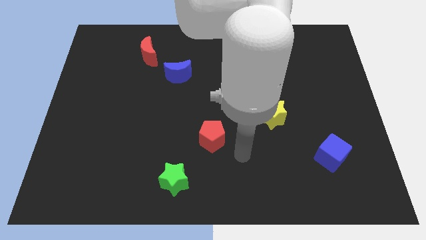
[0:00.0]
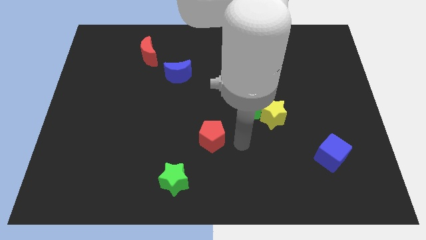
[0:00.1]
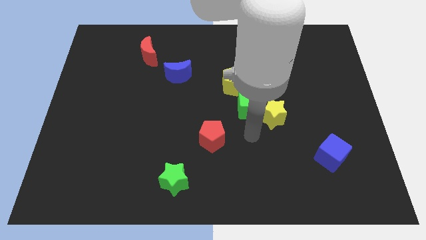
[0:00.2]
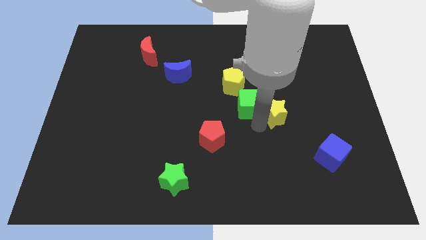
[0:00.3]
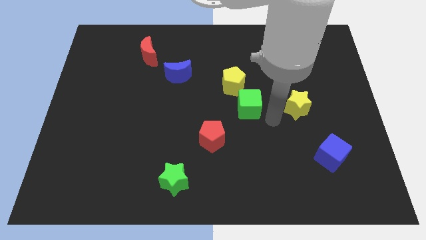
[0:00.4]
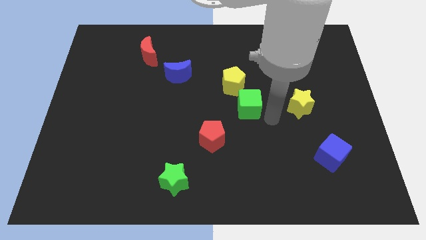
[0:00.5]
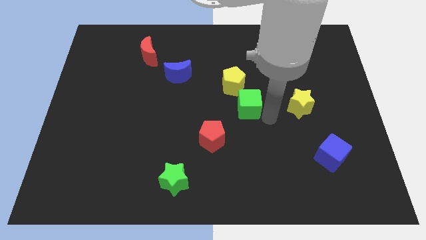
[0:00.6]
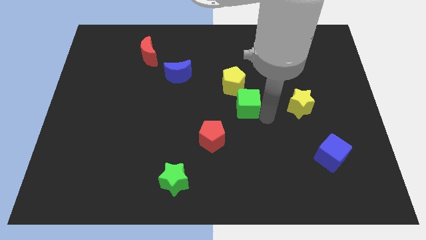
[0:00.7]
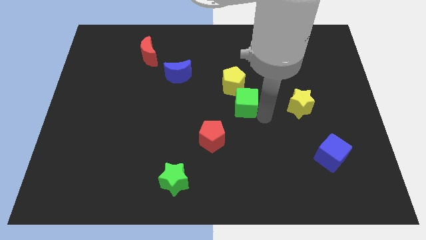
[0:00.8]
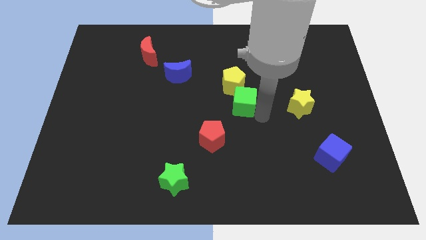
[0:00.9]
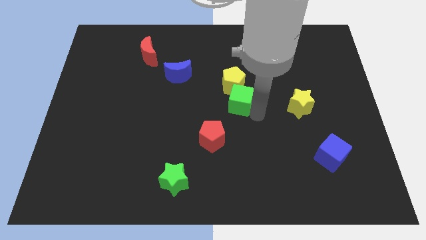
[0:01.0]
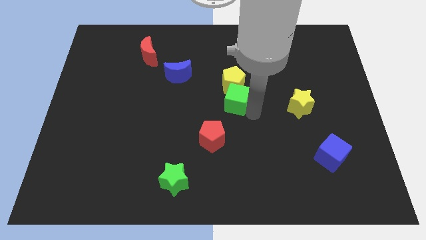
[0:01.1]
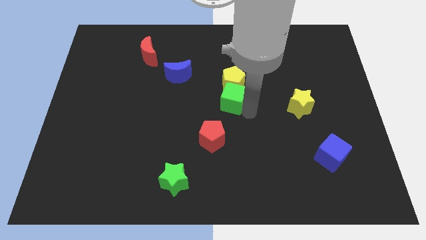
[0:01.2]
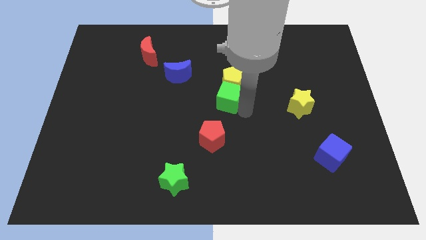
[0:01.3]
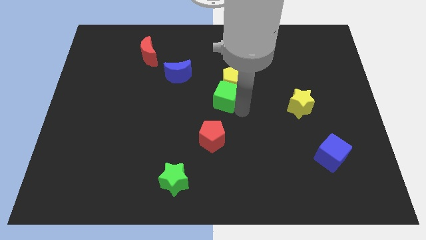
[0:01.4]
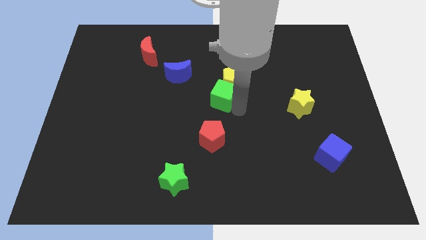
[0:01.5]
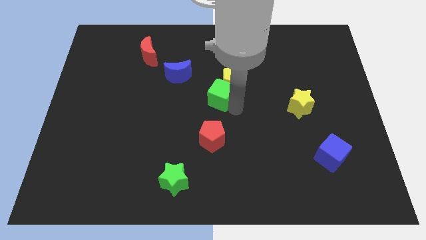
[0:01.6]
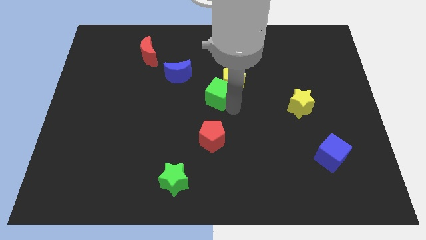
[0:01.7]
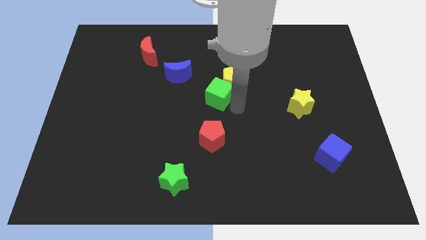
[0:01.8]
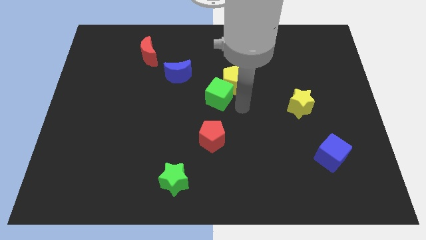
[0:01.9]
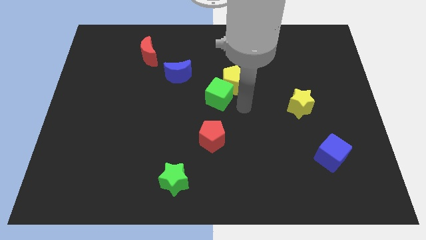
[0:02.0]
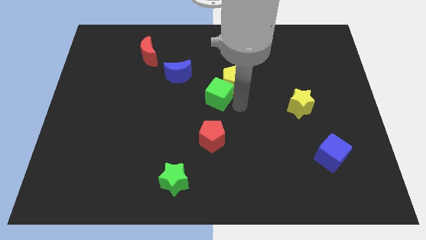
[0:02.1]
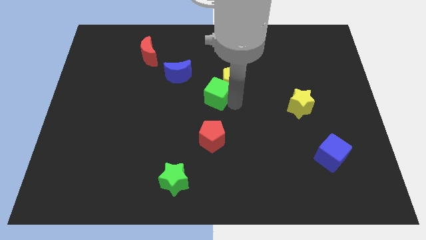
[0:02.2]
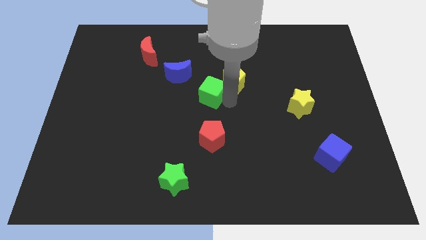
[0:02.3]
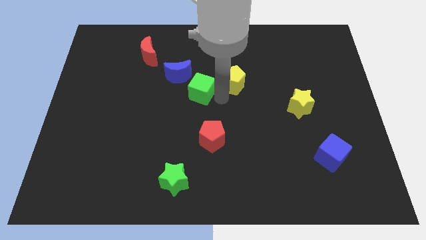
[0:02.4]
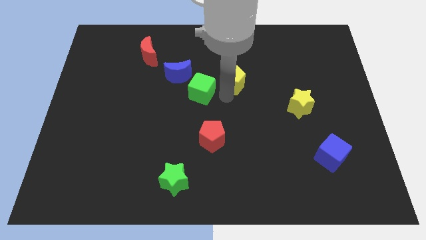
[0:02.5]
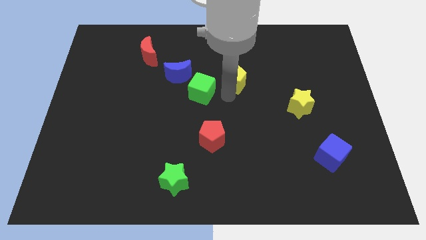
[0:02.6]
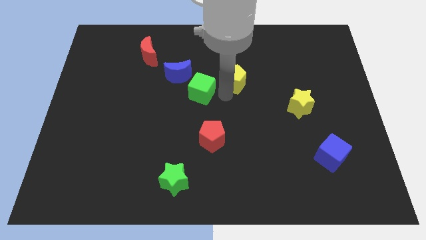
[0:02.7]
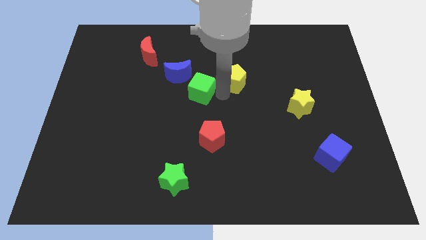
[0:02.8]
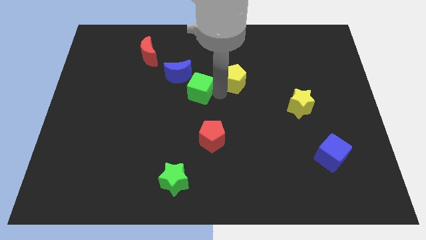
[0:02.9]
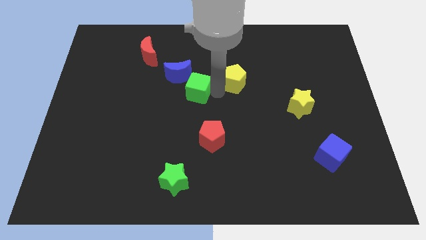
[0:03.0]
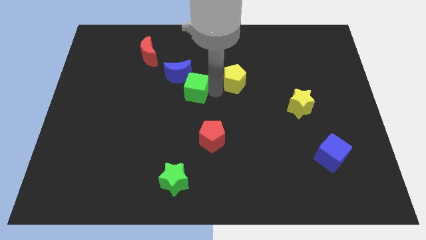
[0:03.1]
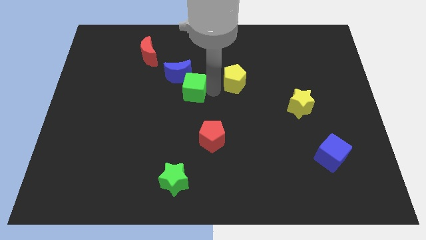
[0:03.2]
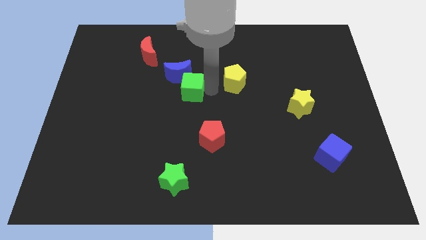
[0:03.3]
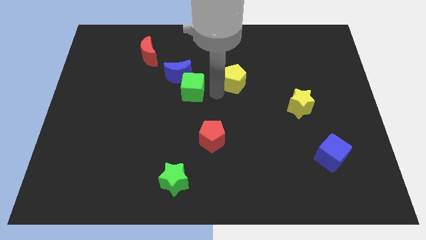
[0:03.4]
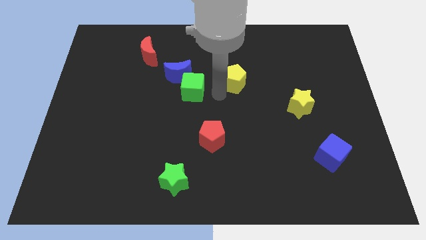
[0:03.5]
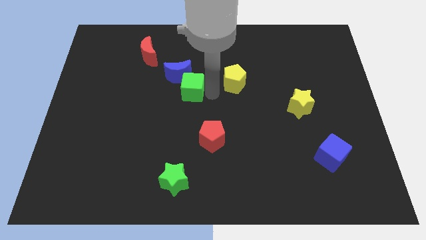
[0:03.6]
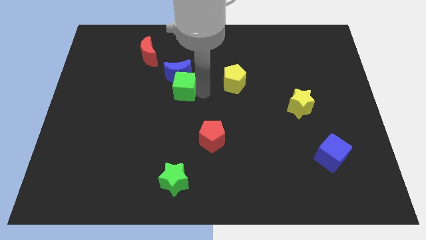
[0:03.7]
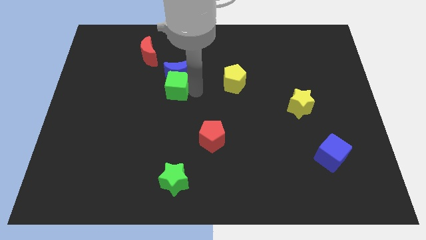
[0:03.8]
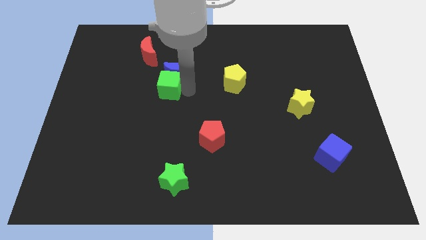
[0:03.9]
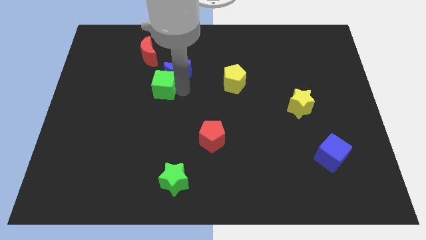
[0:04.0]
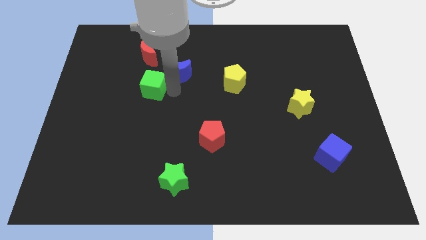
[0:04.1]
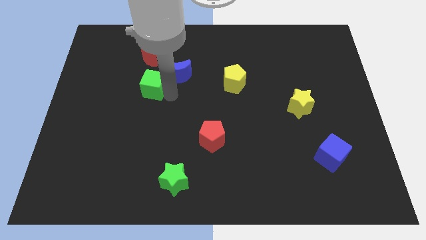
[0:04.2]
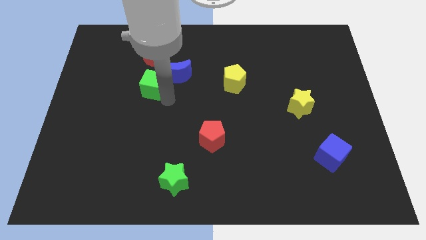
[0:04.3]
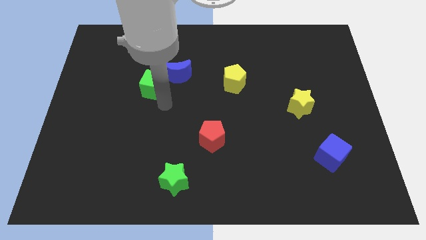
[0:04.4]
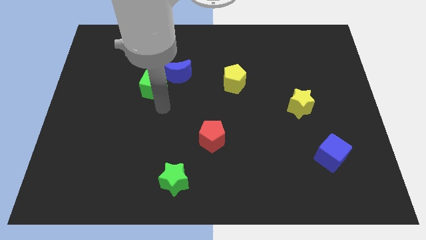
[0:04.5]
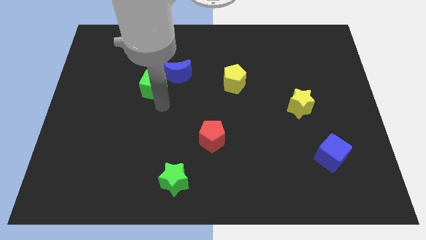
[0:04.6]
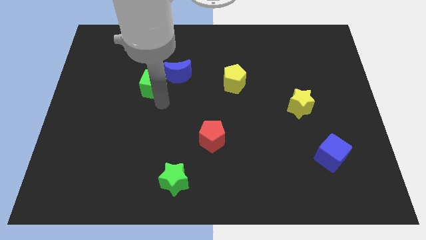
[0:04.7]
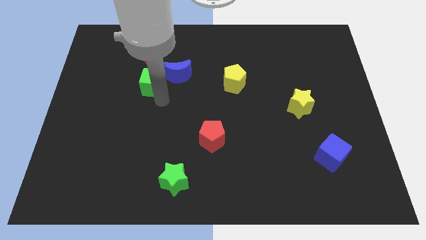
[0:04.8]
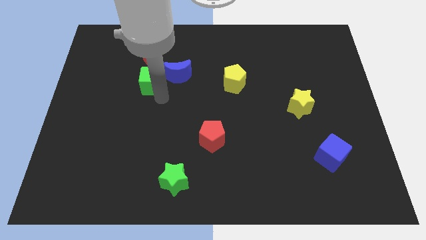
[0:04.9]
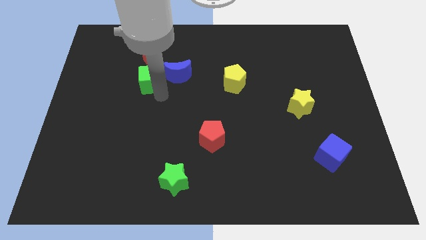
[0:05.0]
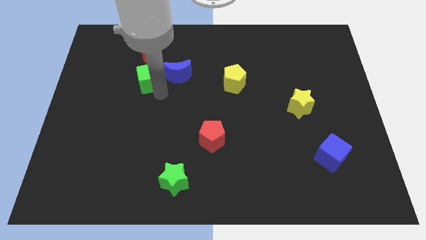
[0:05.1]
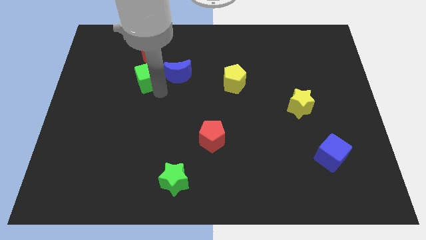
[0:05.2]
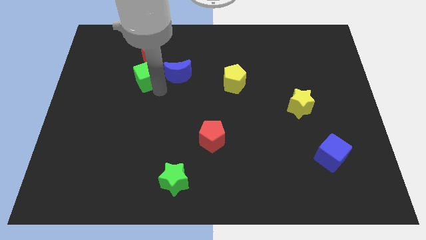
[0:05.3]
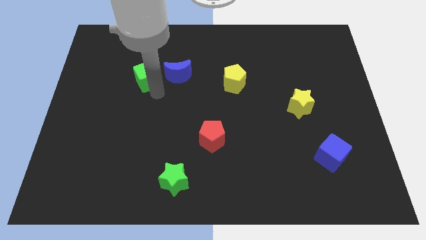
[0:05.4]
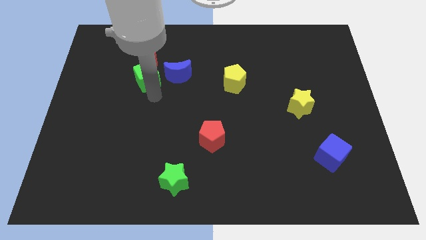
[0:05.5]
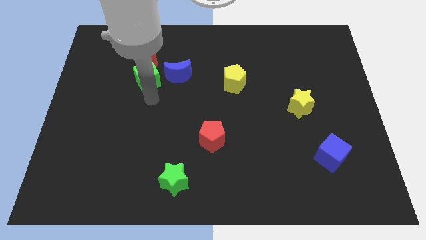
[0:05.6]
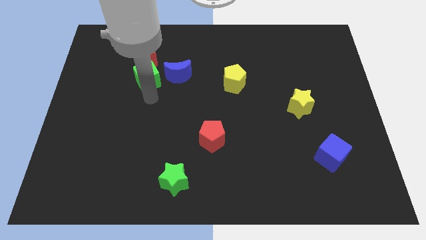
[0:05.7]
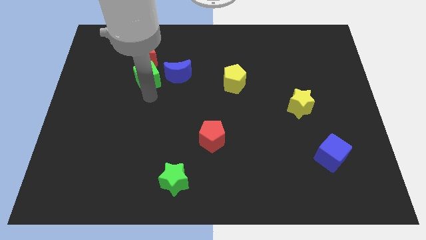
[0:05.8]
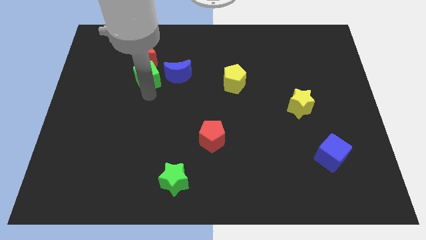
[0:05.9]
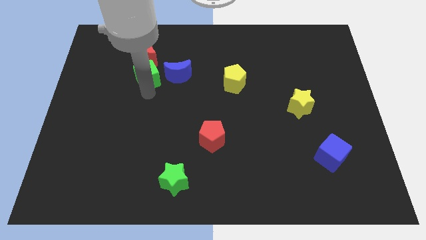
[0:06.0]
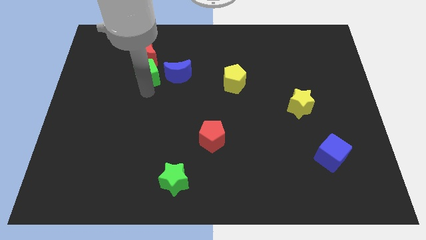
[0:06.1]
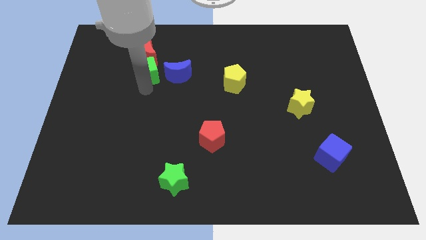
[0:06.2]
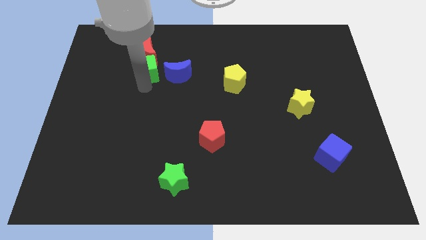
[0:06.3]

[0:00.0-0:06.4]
push the green cube close to the red moon

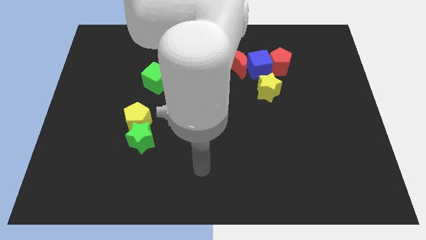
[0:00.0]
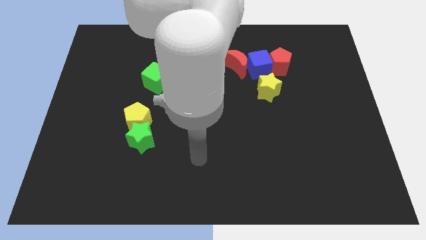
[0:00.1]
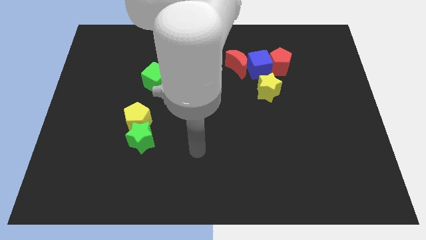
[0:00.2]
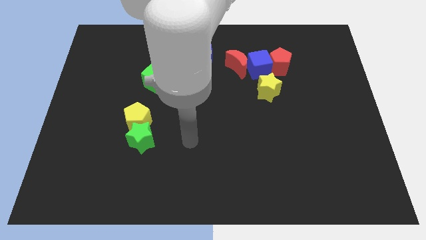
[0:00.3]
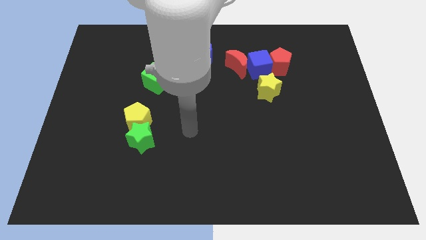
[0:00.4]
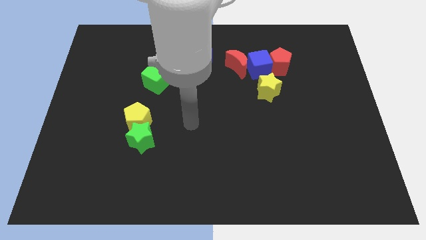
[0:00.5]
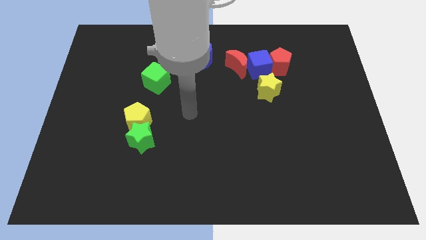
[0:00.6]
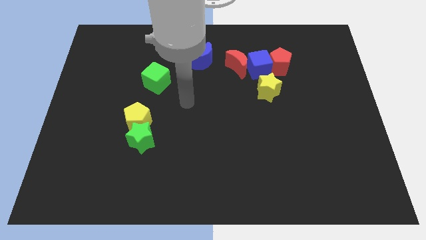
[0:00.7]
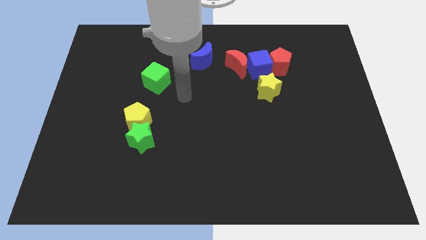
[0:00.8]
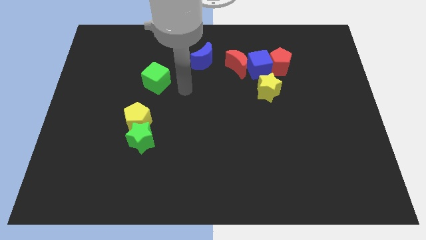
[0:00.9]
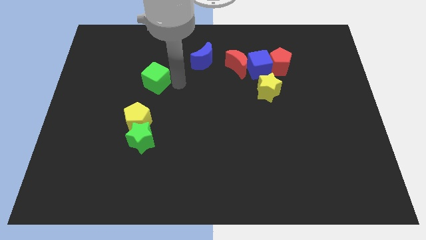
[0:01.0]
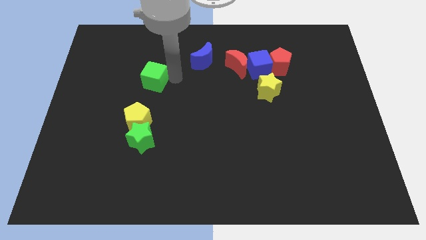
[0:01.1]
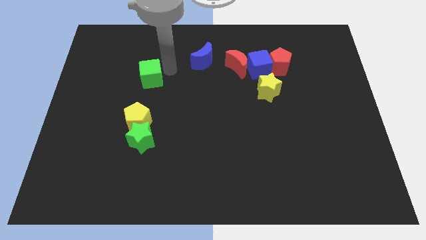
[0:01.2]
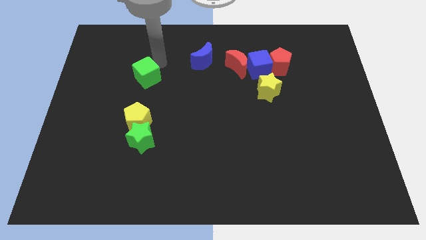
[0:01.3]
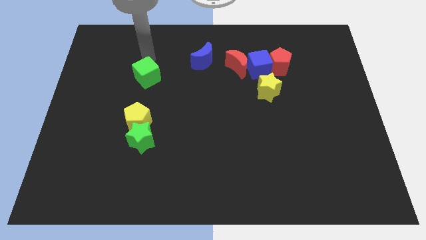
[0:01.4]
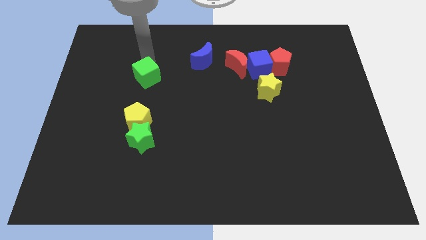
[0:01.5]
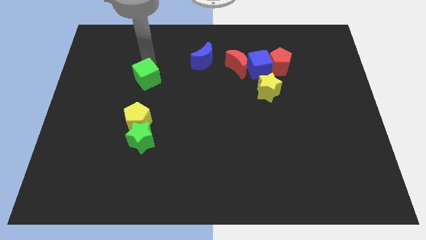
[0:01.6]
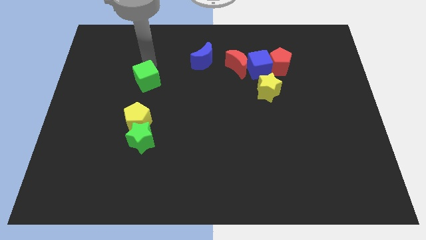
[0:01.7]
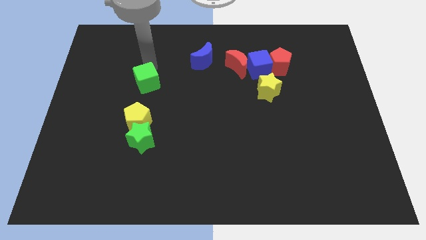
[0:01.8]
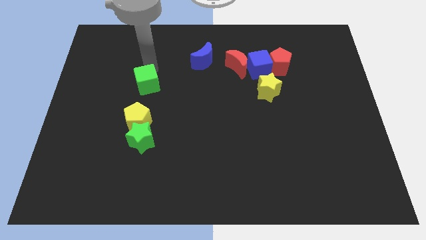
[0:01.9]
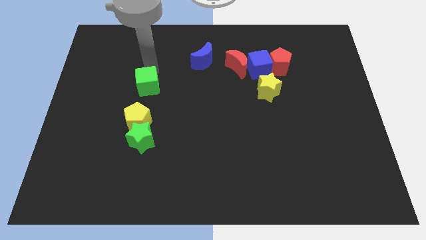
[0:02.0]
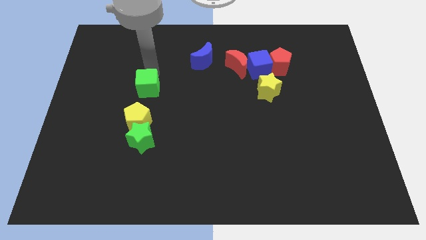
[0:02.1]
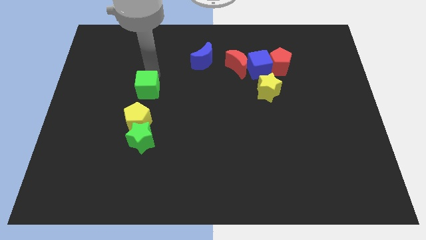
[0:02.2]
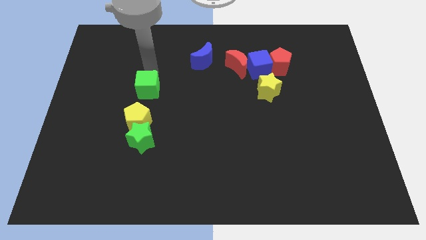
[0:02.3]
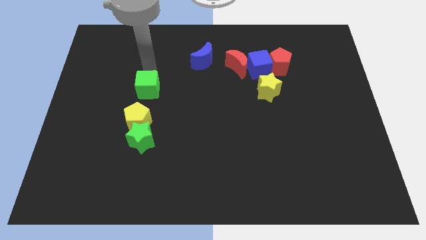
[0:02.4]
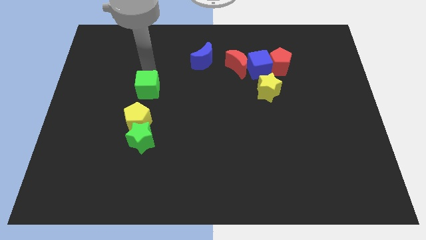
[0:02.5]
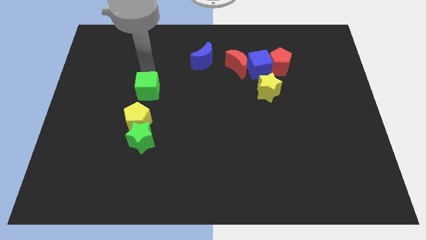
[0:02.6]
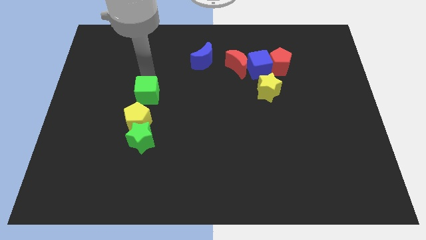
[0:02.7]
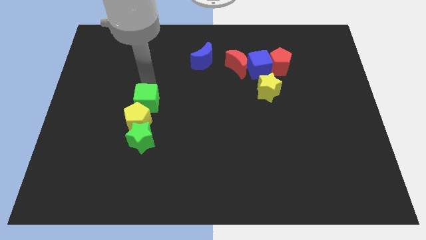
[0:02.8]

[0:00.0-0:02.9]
move the green cube next to the yellow pentagon
